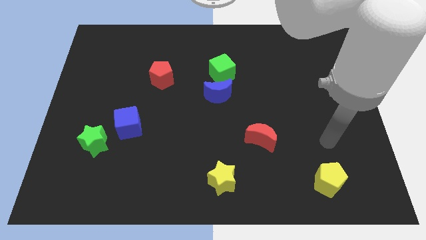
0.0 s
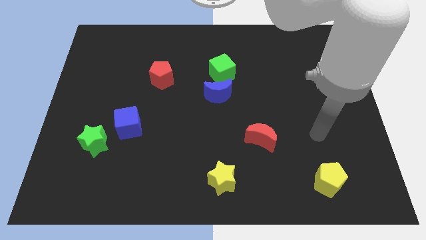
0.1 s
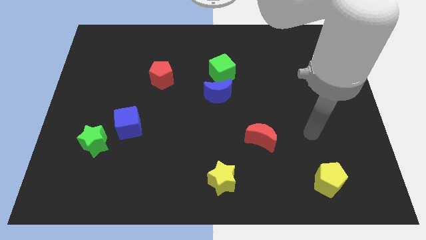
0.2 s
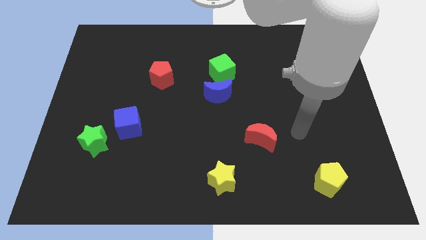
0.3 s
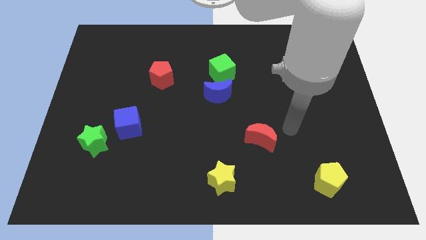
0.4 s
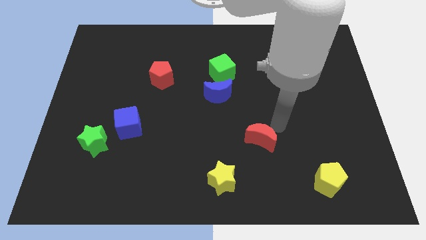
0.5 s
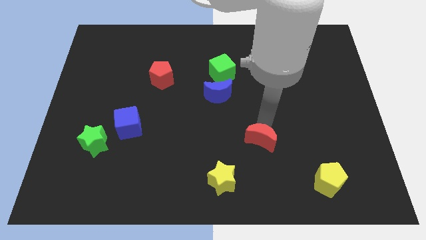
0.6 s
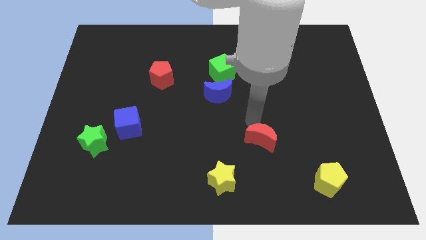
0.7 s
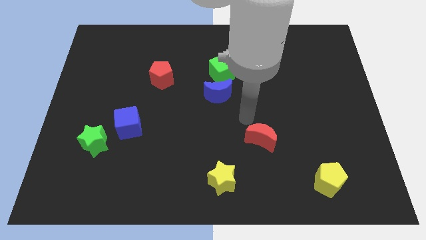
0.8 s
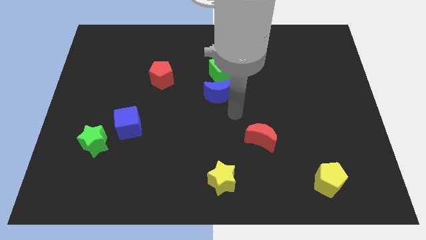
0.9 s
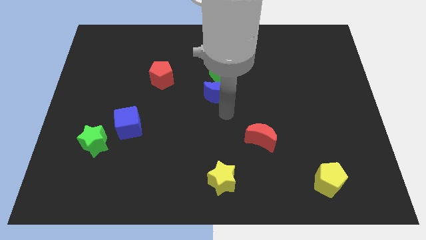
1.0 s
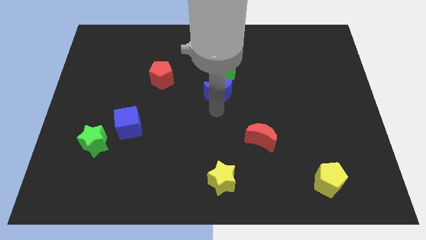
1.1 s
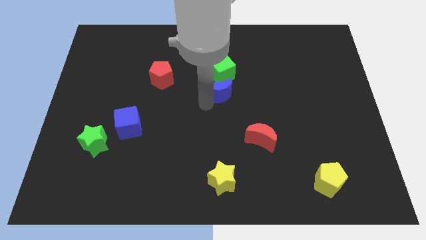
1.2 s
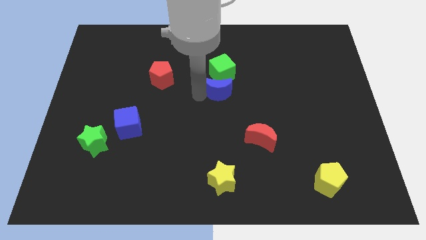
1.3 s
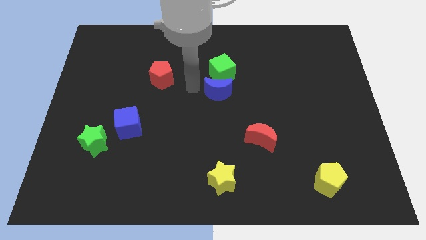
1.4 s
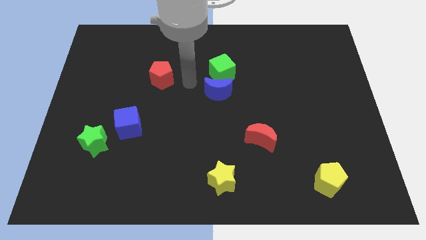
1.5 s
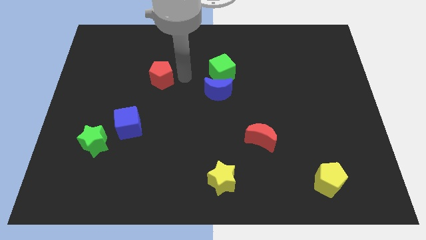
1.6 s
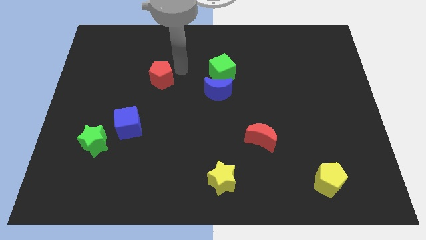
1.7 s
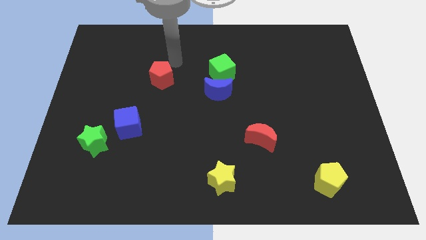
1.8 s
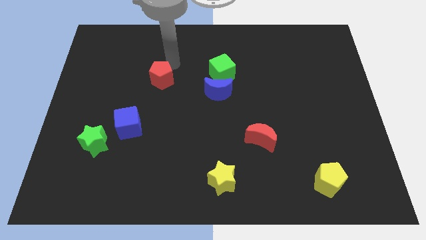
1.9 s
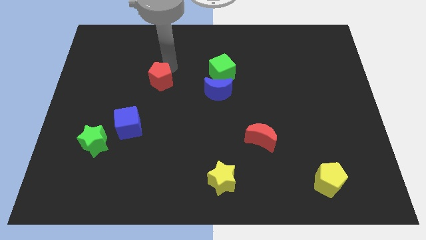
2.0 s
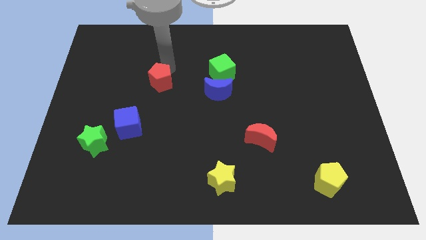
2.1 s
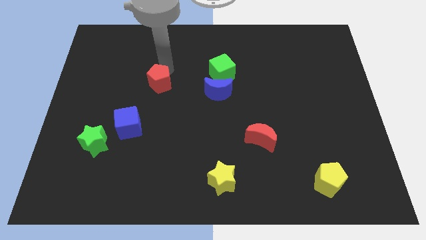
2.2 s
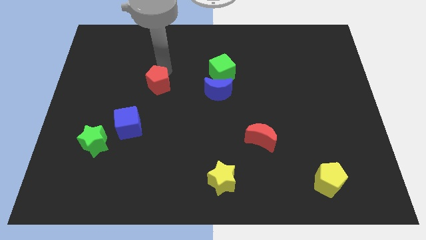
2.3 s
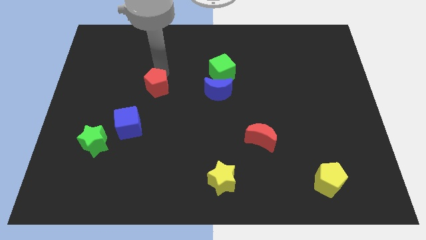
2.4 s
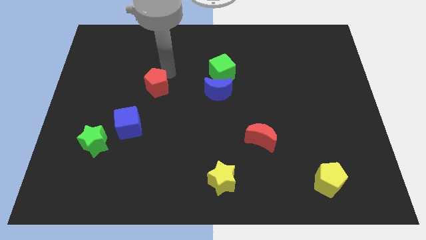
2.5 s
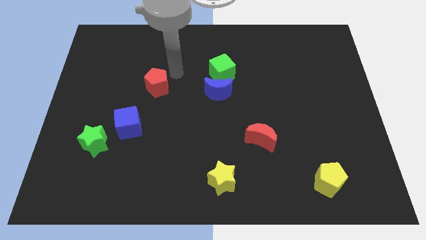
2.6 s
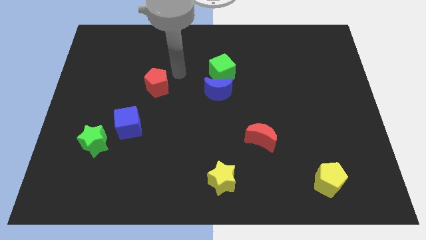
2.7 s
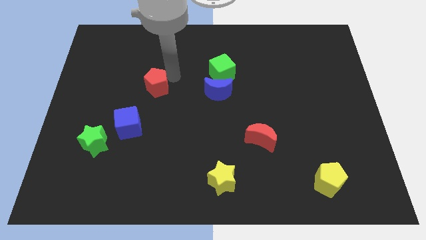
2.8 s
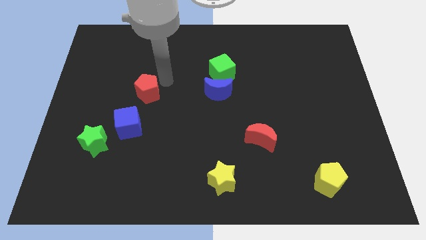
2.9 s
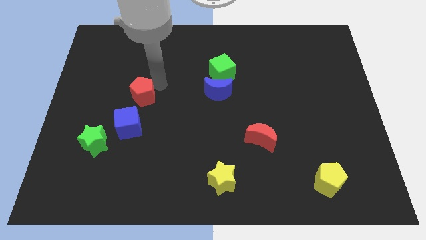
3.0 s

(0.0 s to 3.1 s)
push the red pentagon downwards and to the left slightly

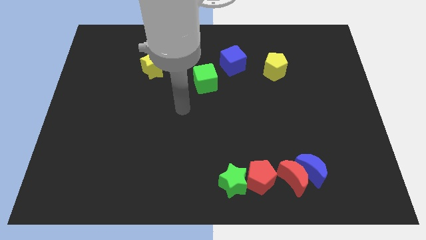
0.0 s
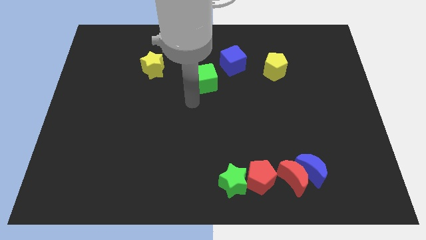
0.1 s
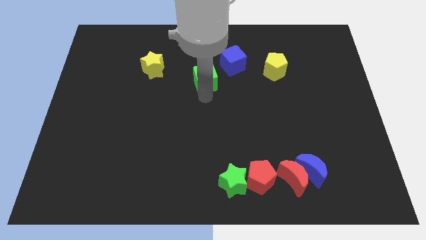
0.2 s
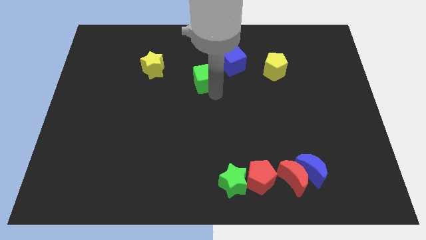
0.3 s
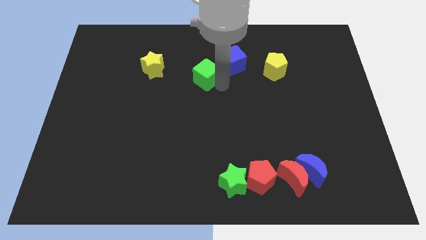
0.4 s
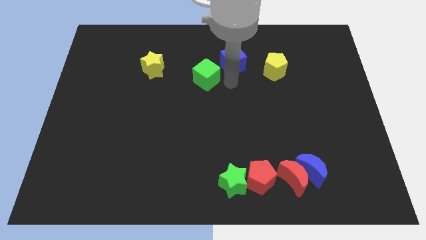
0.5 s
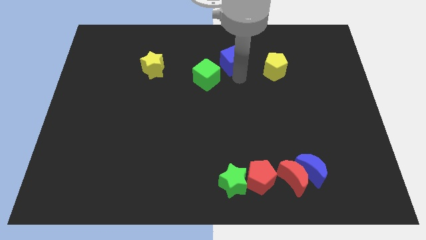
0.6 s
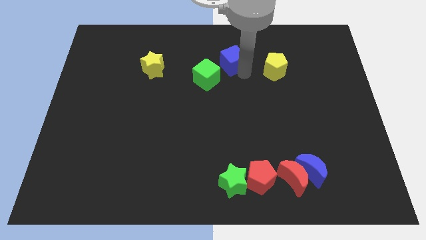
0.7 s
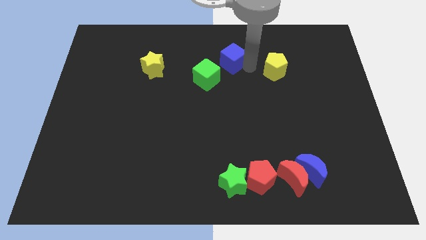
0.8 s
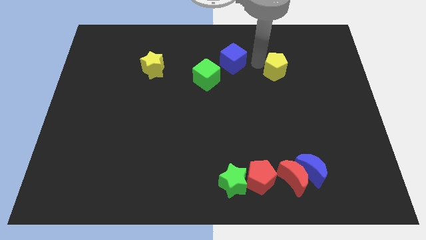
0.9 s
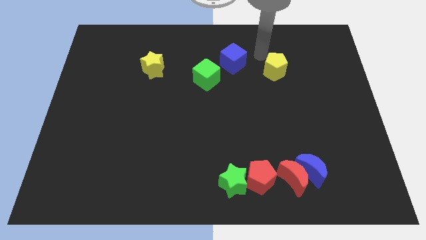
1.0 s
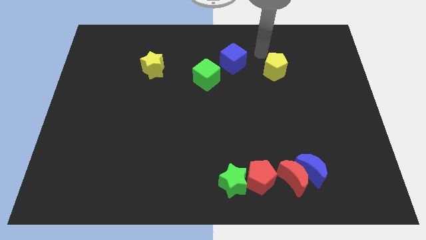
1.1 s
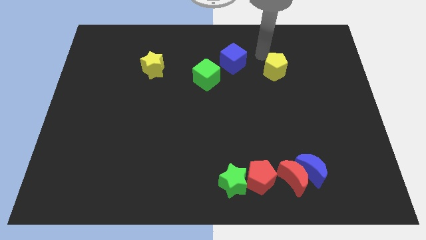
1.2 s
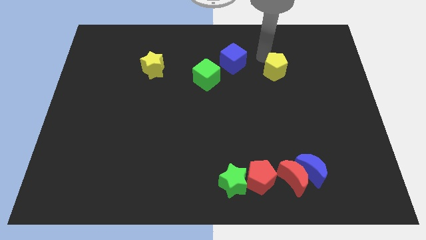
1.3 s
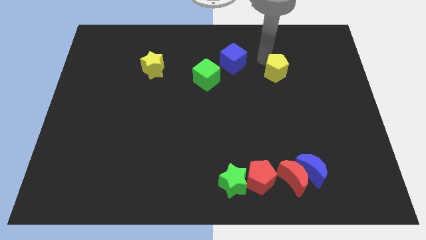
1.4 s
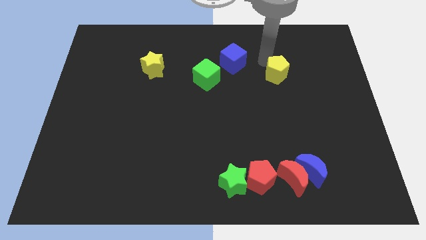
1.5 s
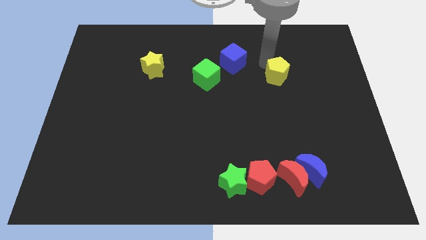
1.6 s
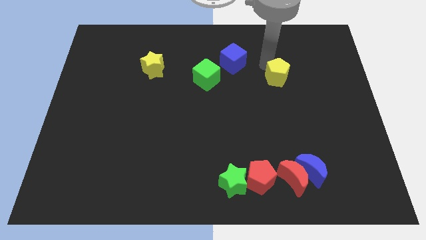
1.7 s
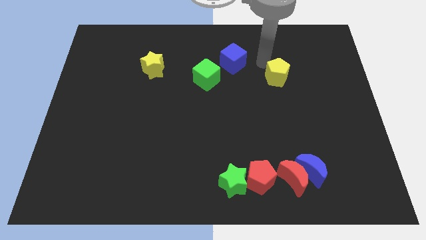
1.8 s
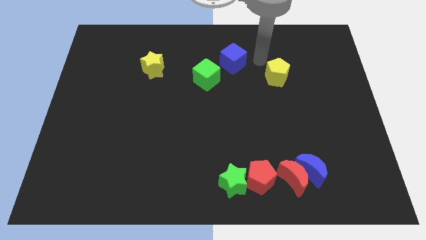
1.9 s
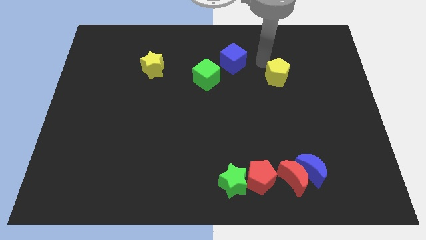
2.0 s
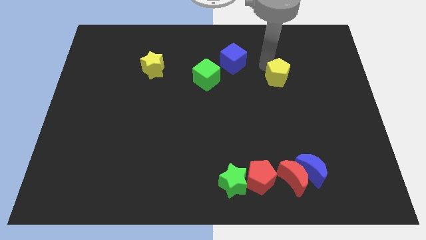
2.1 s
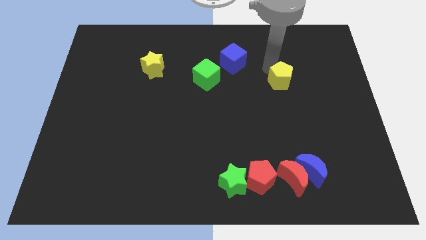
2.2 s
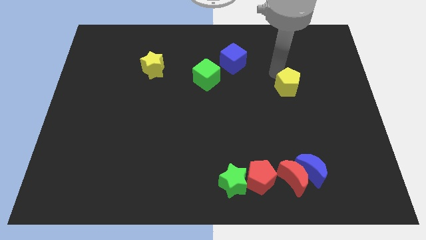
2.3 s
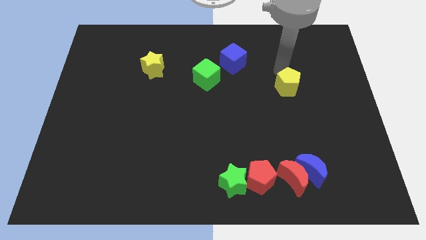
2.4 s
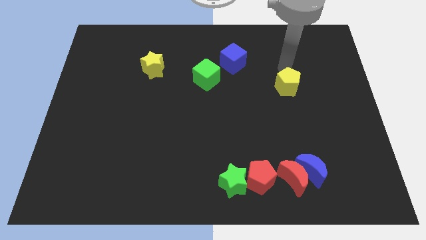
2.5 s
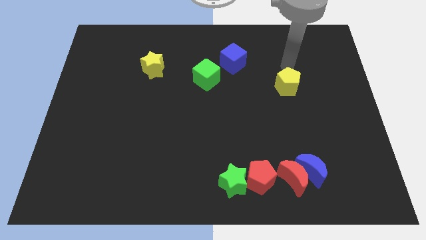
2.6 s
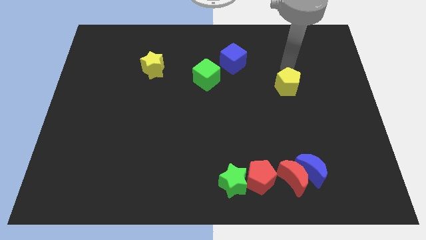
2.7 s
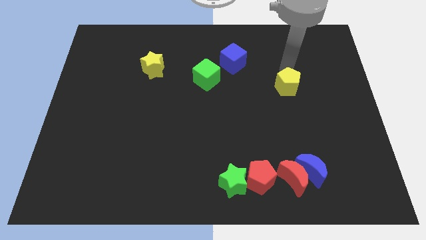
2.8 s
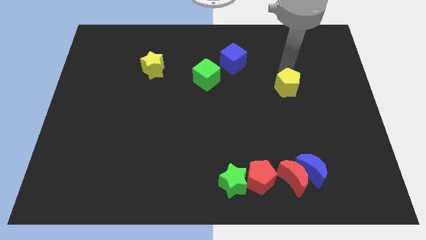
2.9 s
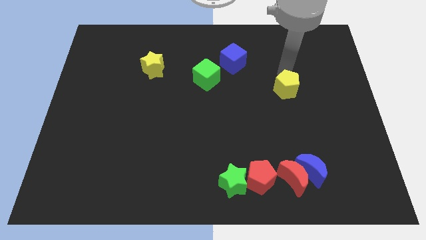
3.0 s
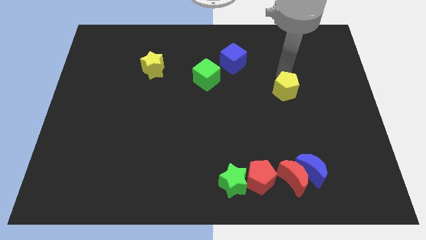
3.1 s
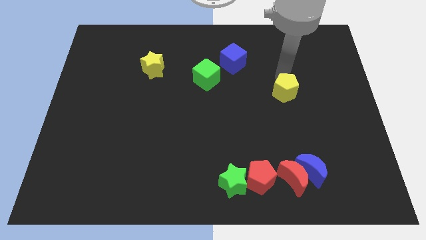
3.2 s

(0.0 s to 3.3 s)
slightly push the yellow pentagon downwards

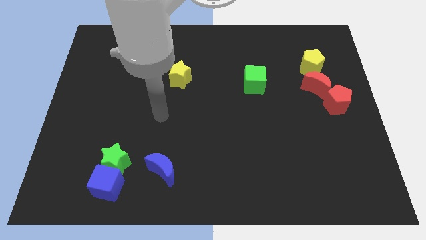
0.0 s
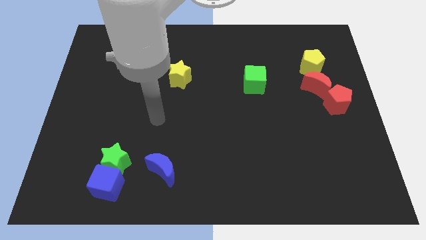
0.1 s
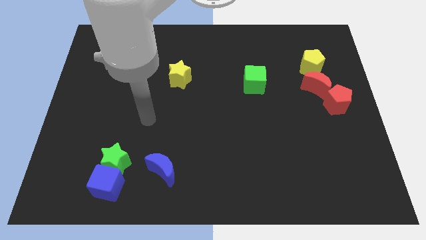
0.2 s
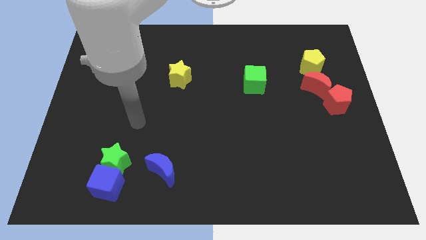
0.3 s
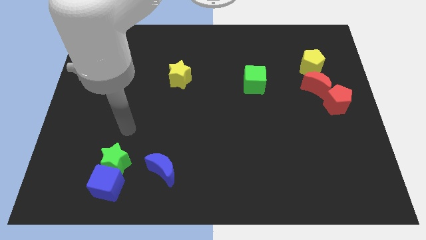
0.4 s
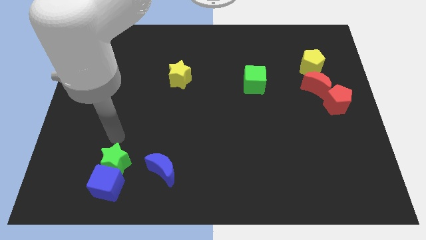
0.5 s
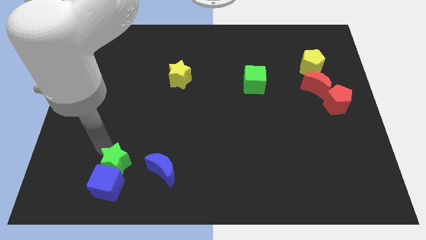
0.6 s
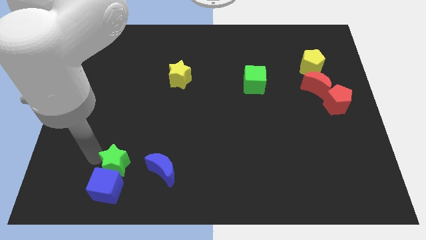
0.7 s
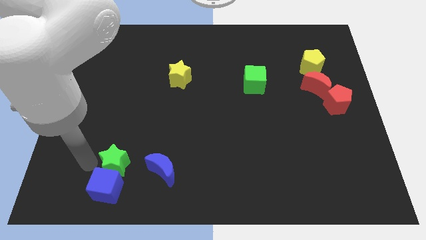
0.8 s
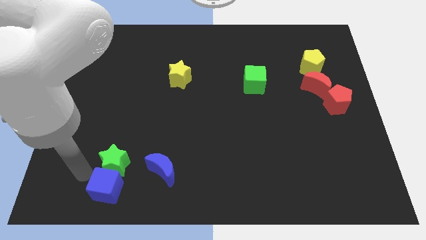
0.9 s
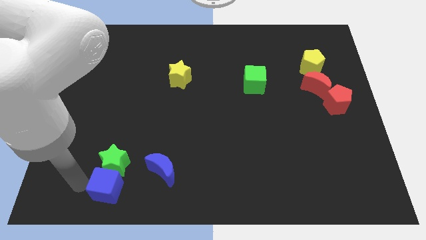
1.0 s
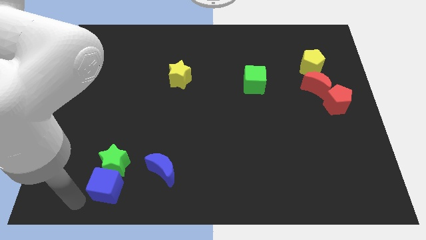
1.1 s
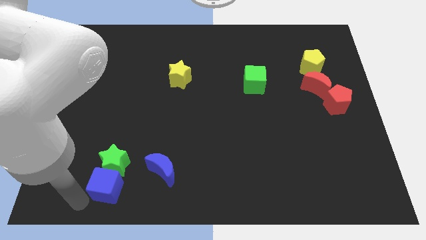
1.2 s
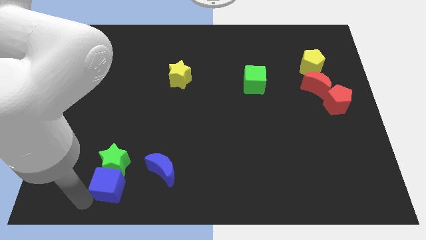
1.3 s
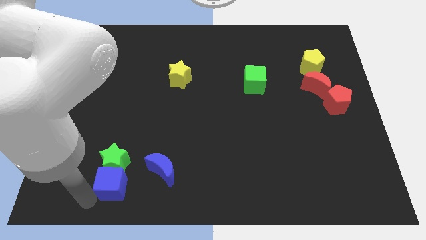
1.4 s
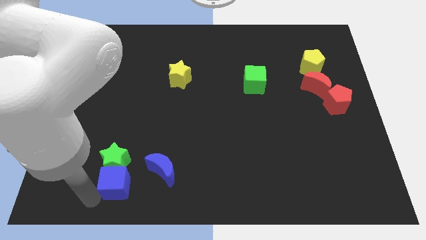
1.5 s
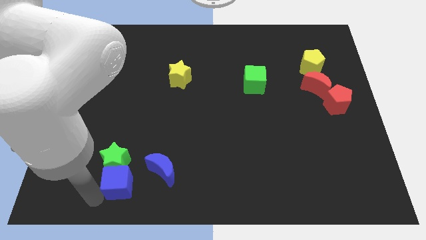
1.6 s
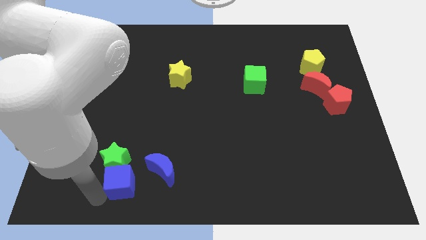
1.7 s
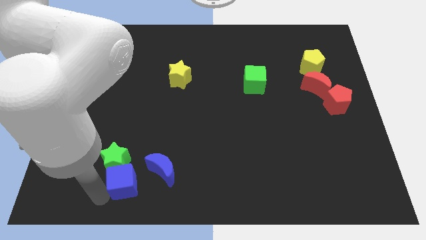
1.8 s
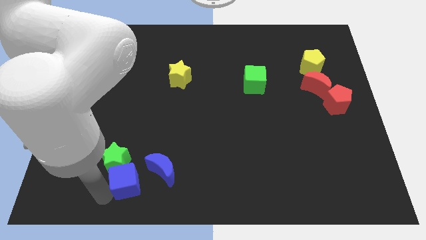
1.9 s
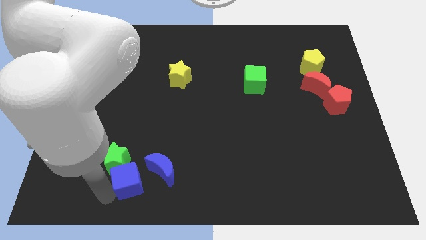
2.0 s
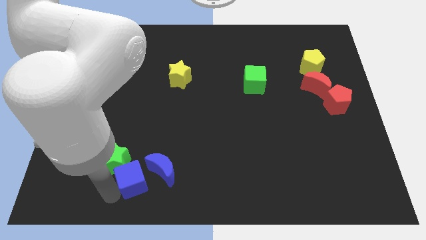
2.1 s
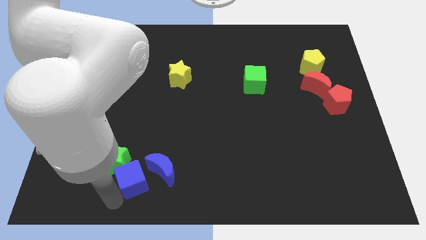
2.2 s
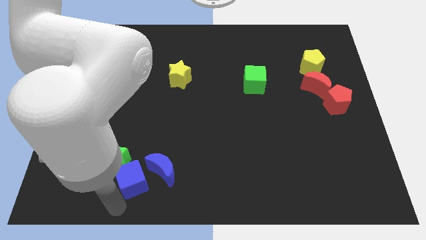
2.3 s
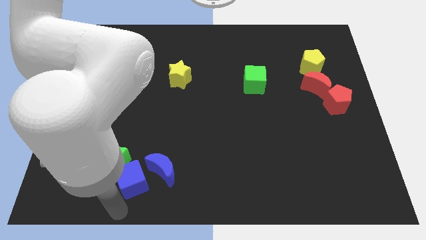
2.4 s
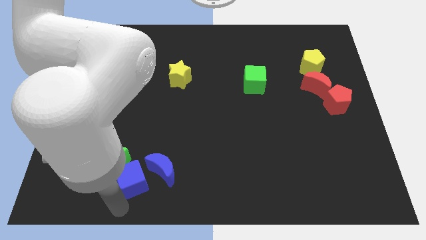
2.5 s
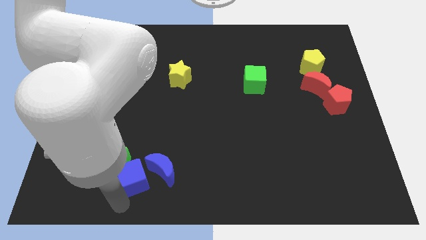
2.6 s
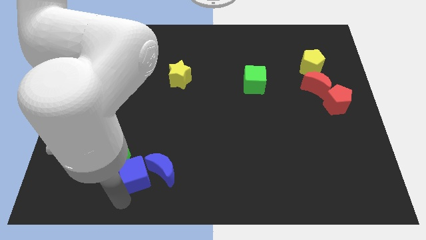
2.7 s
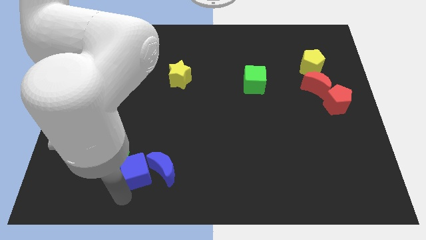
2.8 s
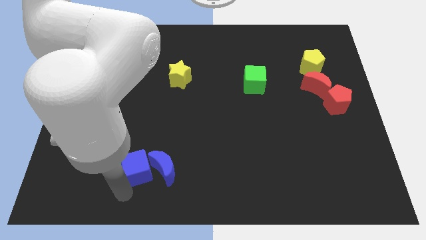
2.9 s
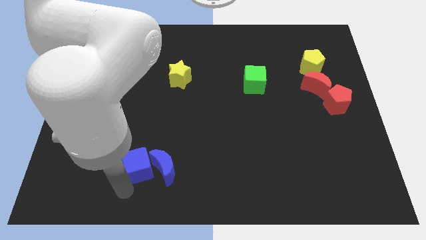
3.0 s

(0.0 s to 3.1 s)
slide the blue cube somewhat up and then right
